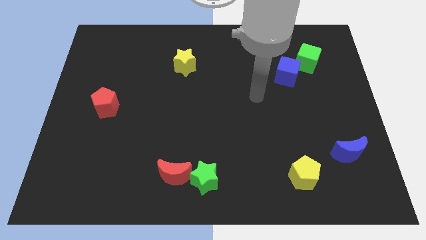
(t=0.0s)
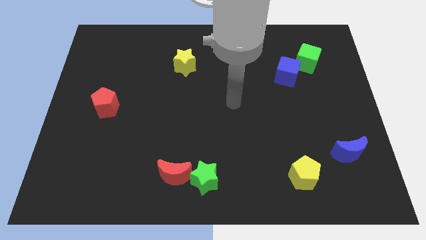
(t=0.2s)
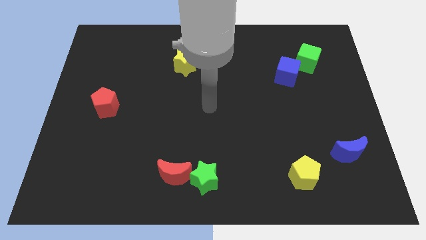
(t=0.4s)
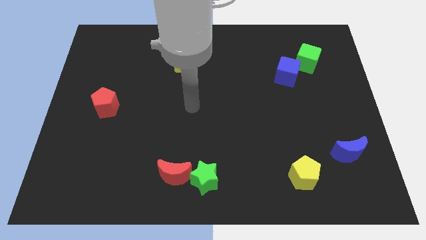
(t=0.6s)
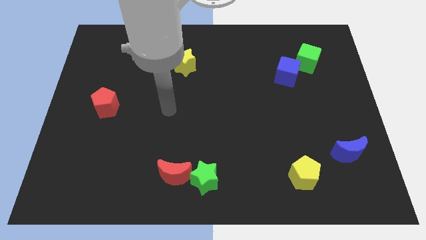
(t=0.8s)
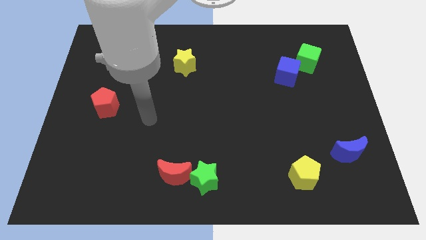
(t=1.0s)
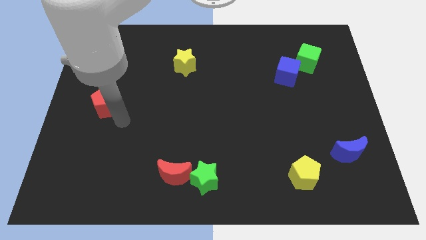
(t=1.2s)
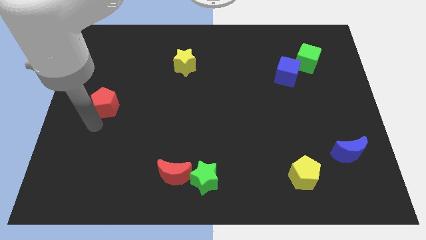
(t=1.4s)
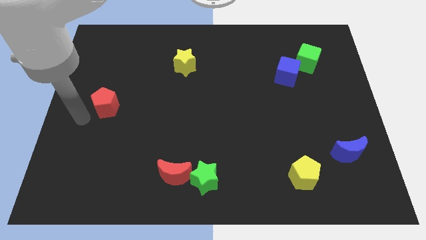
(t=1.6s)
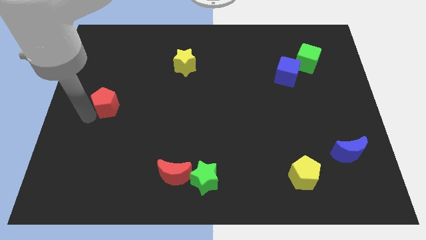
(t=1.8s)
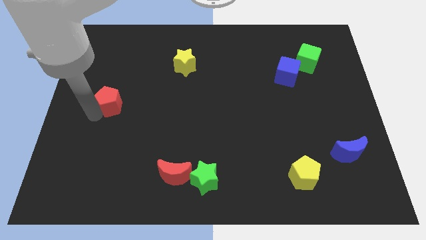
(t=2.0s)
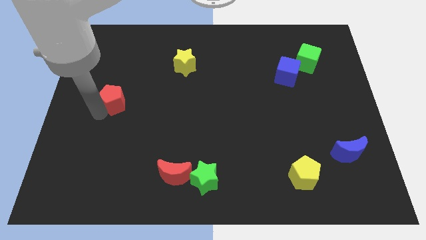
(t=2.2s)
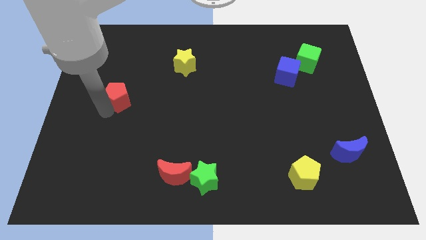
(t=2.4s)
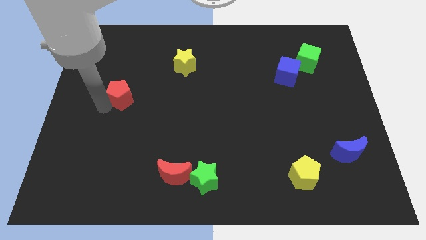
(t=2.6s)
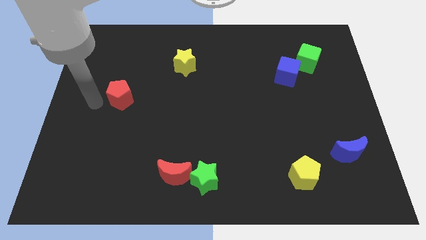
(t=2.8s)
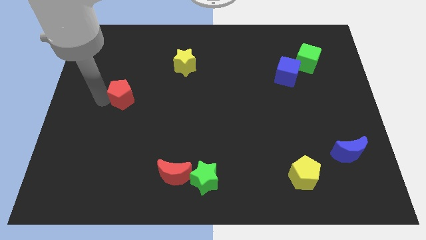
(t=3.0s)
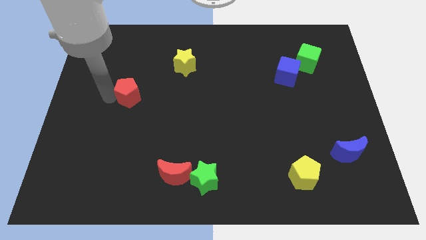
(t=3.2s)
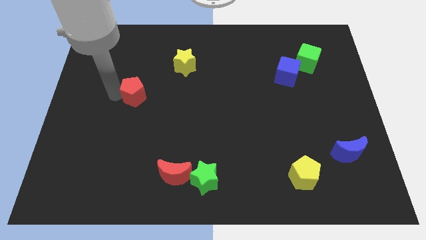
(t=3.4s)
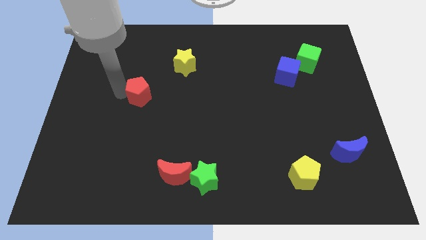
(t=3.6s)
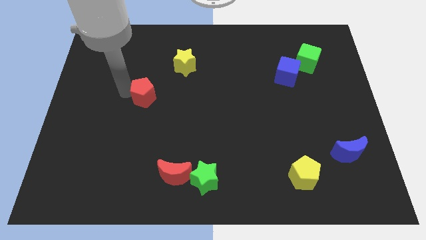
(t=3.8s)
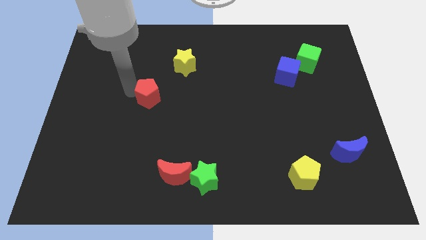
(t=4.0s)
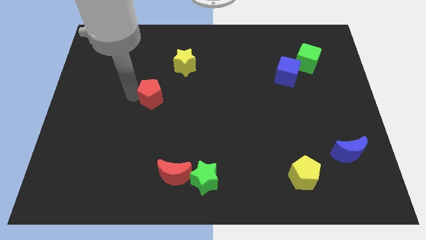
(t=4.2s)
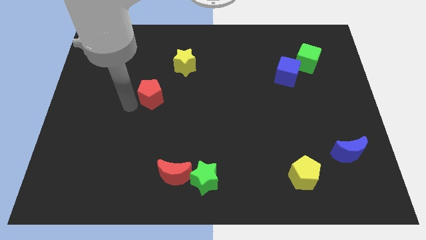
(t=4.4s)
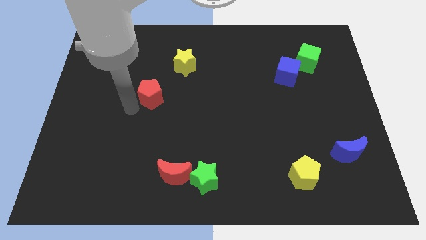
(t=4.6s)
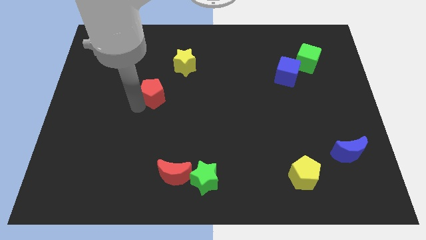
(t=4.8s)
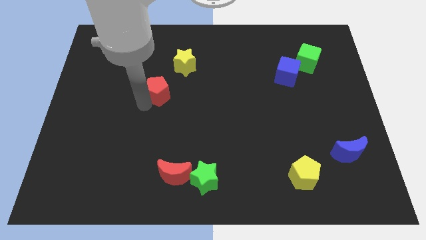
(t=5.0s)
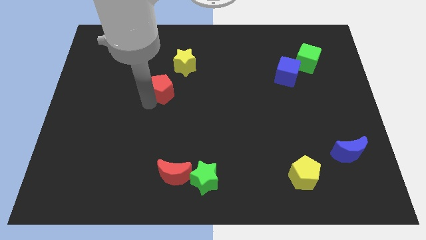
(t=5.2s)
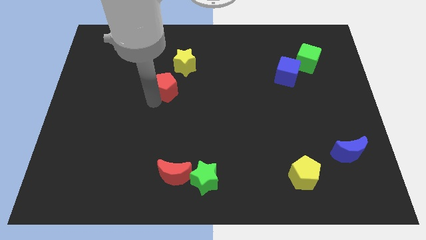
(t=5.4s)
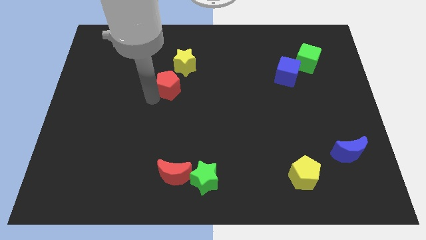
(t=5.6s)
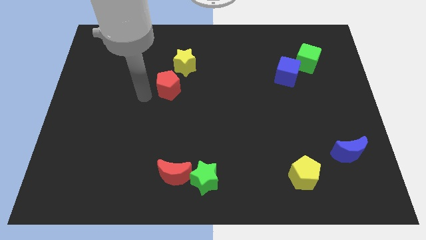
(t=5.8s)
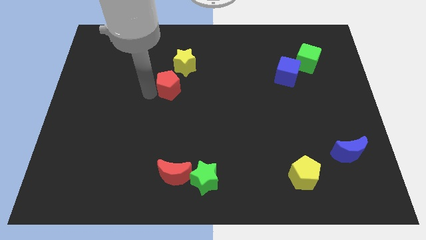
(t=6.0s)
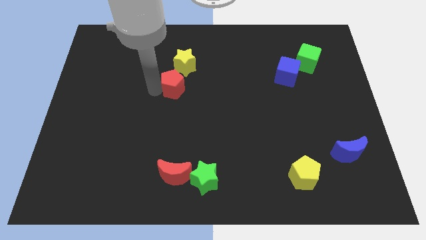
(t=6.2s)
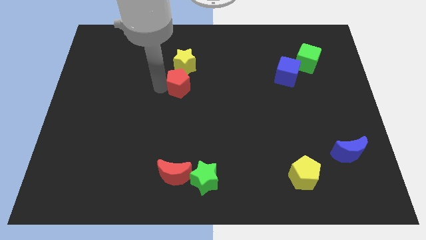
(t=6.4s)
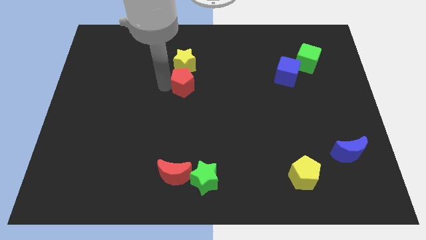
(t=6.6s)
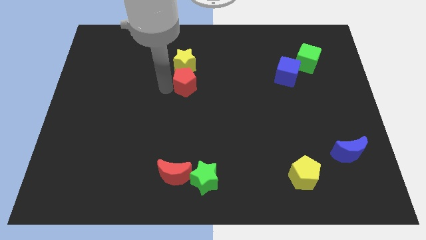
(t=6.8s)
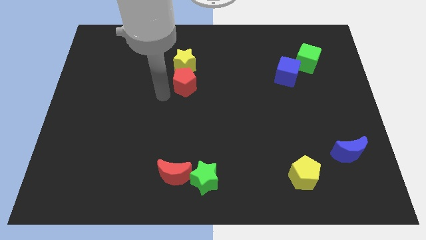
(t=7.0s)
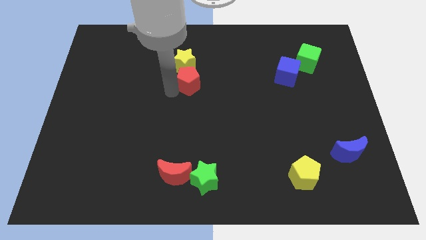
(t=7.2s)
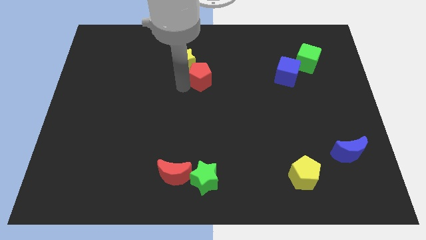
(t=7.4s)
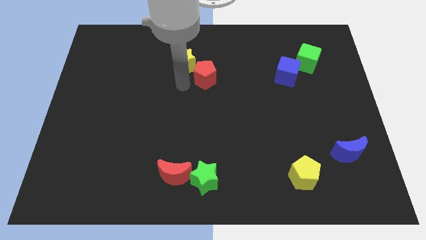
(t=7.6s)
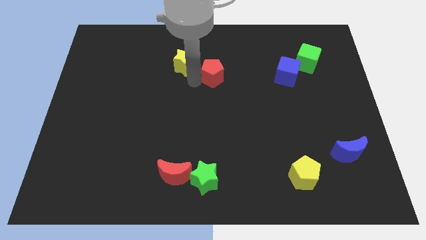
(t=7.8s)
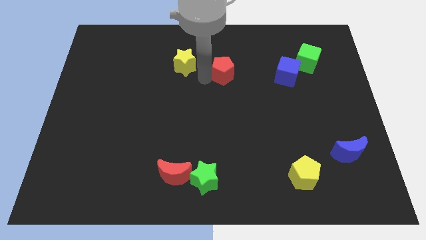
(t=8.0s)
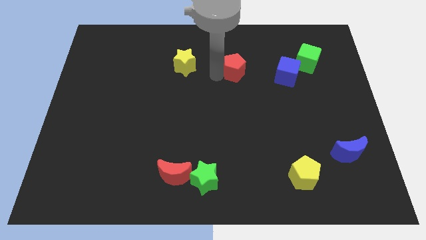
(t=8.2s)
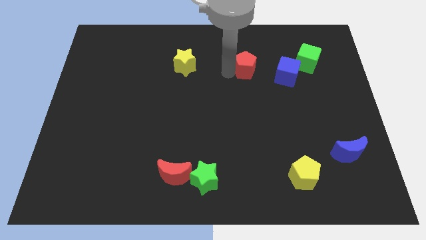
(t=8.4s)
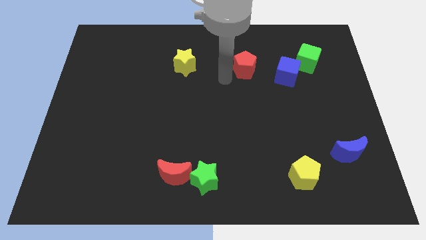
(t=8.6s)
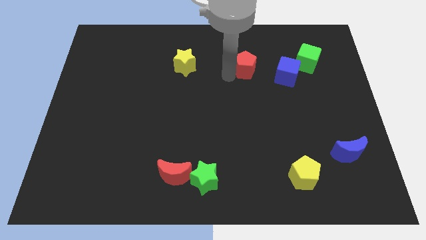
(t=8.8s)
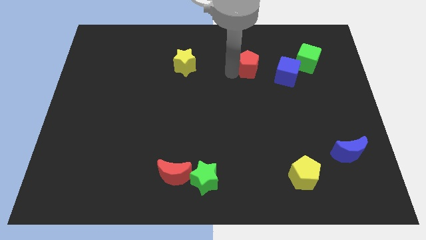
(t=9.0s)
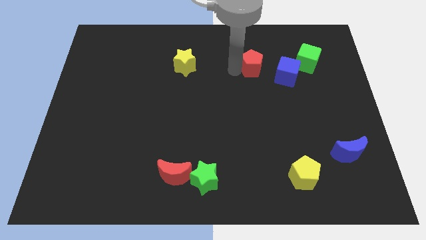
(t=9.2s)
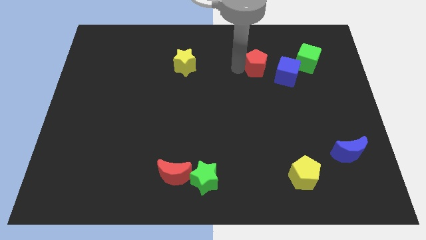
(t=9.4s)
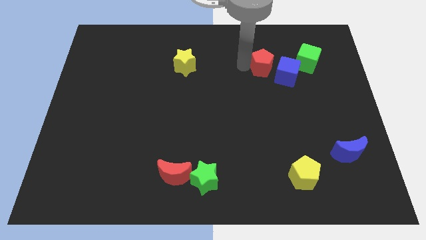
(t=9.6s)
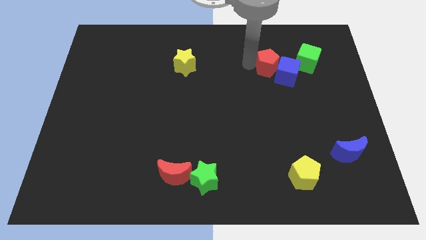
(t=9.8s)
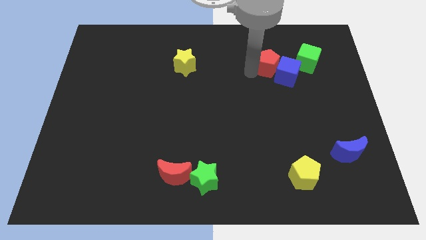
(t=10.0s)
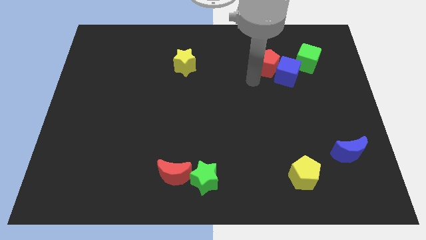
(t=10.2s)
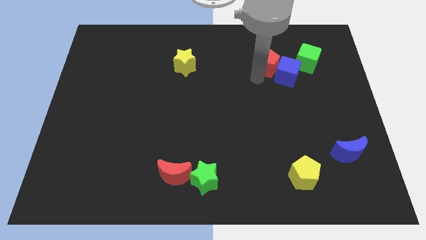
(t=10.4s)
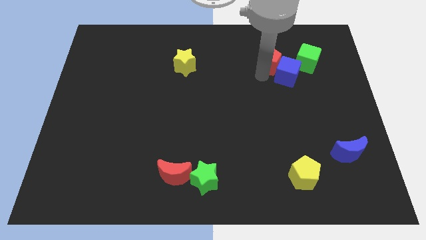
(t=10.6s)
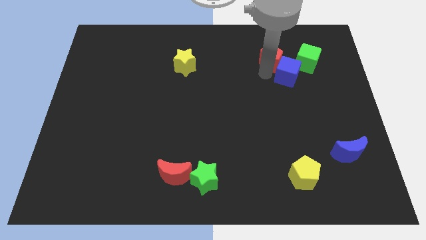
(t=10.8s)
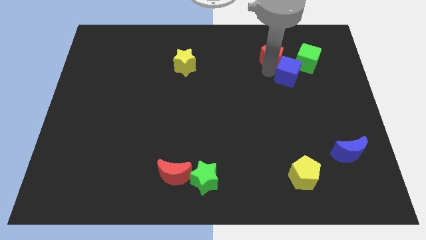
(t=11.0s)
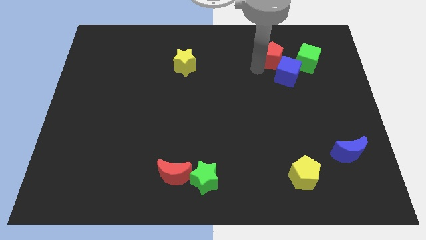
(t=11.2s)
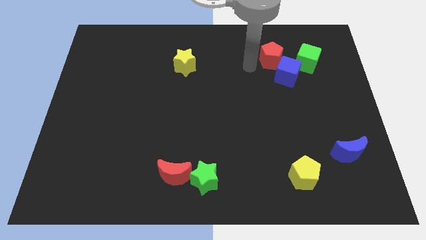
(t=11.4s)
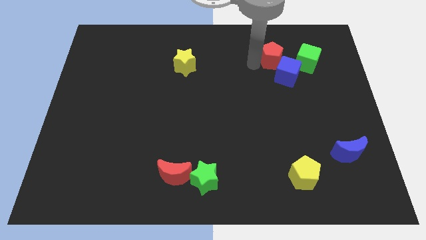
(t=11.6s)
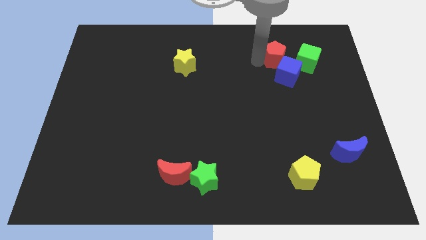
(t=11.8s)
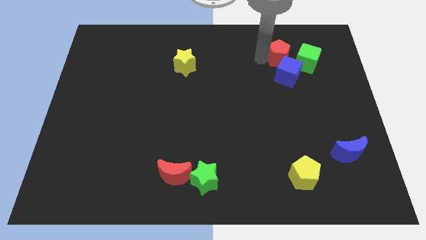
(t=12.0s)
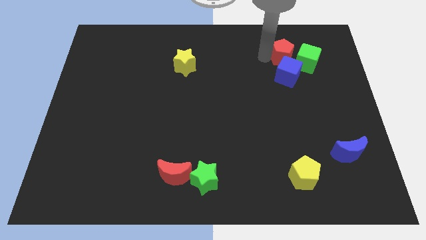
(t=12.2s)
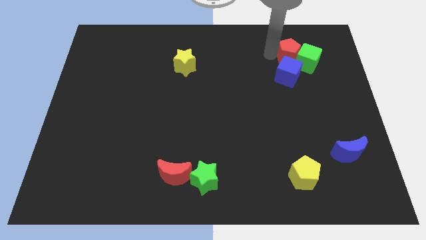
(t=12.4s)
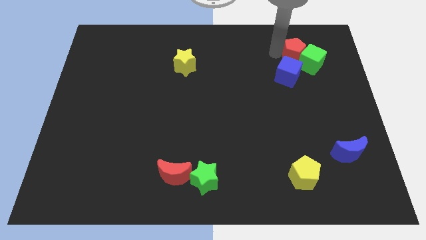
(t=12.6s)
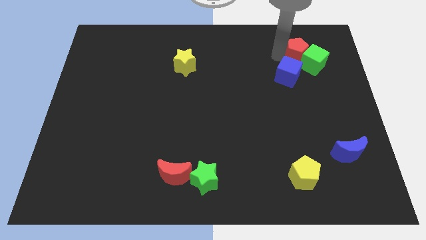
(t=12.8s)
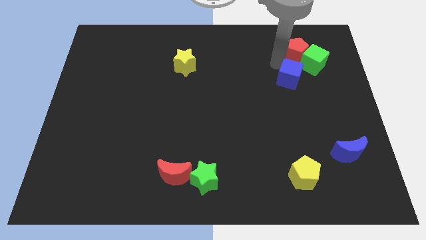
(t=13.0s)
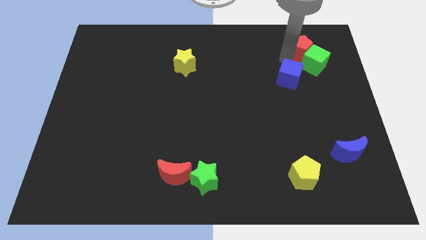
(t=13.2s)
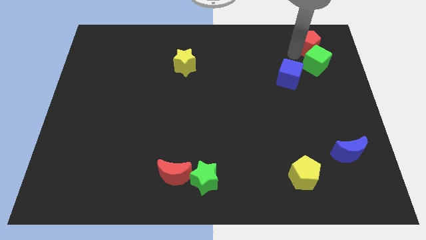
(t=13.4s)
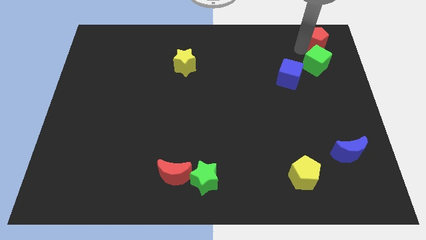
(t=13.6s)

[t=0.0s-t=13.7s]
push the red pentagon to the top right of the board
